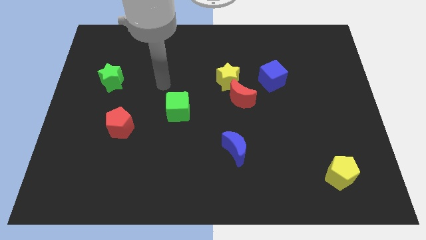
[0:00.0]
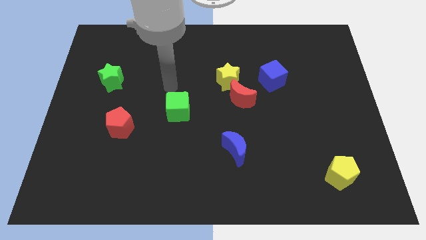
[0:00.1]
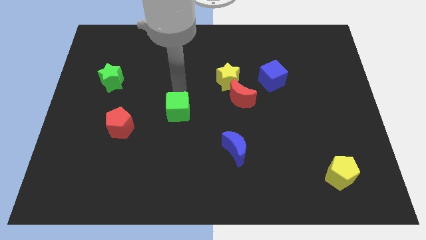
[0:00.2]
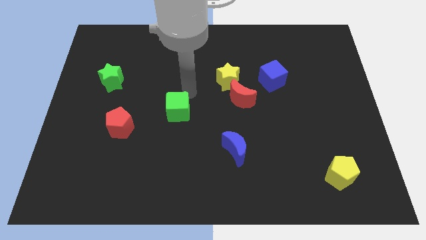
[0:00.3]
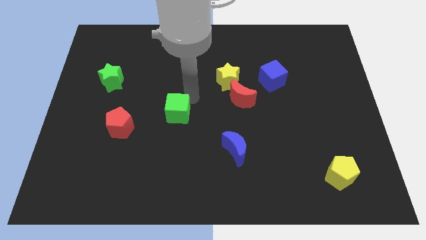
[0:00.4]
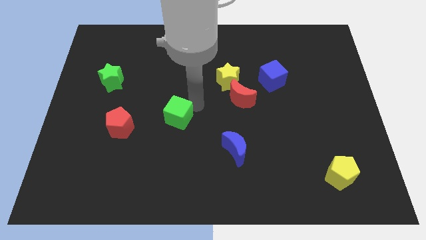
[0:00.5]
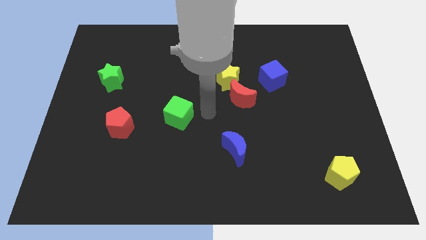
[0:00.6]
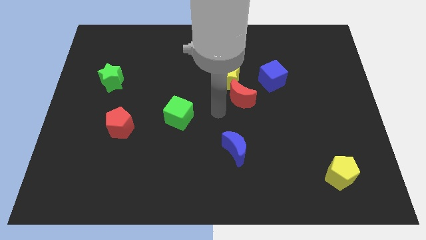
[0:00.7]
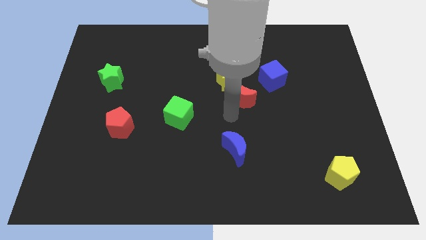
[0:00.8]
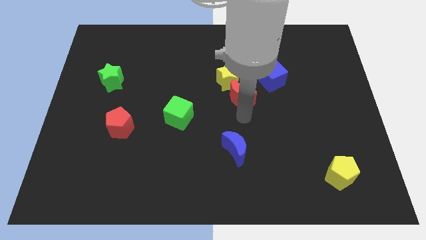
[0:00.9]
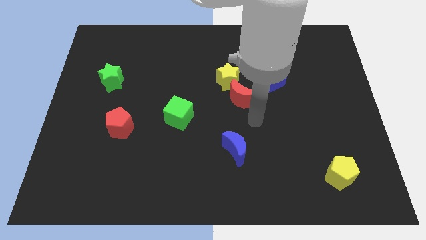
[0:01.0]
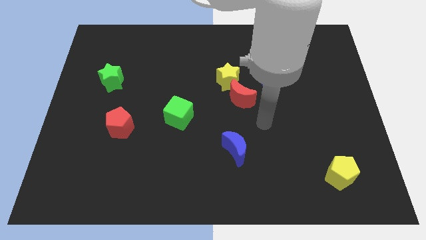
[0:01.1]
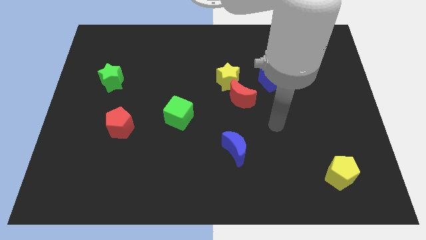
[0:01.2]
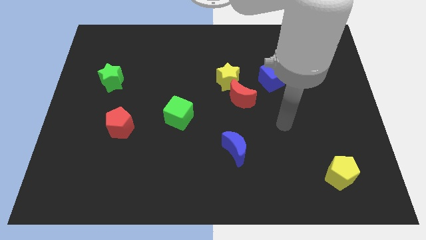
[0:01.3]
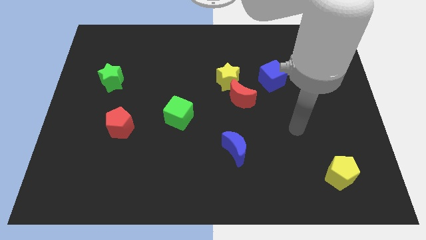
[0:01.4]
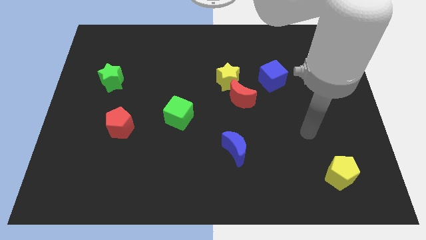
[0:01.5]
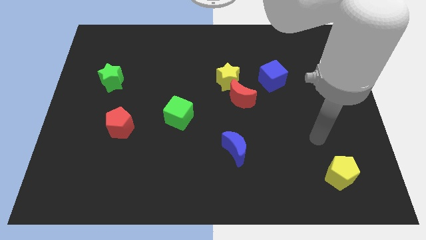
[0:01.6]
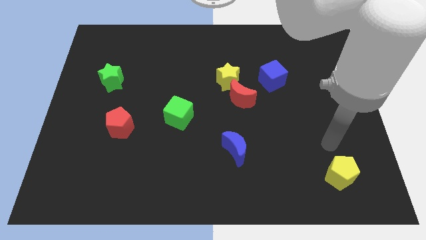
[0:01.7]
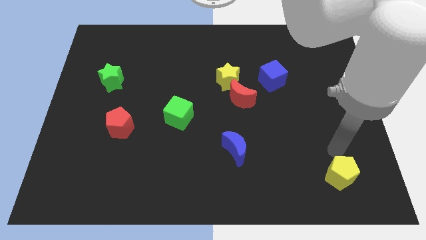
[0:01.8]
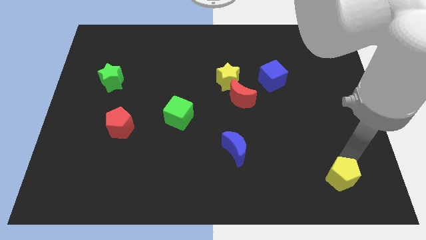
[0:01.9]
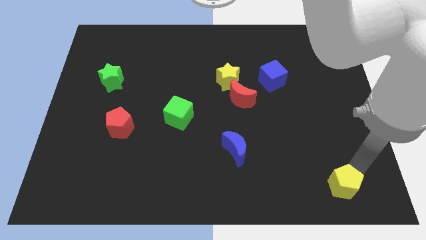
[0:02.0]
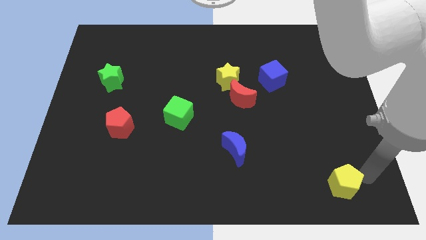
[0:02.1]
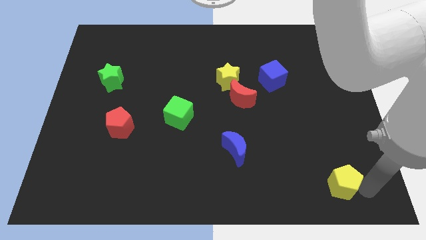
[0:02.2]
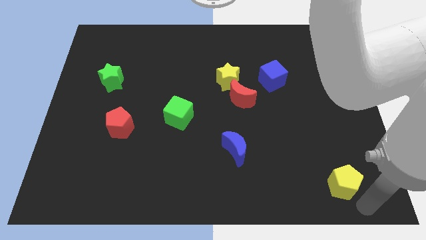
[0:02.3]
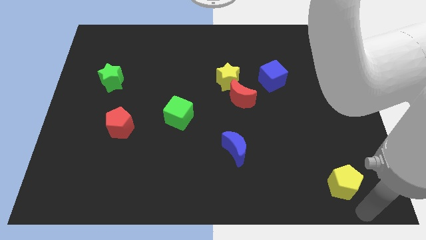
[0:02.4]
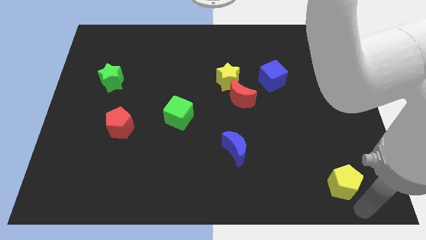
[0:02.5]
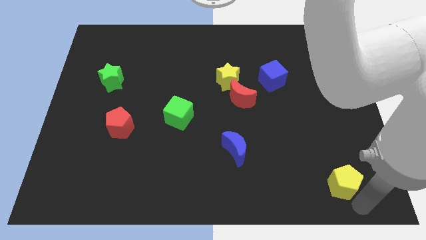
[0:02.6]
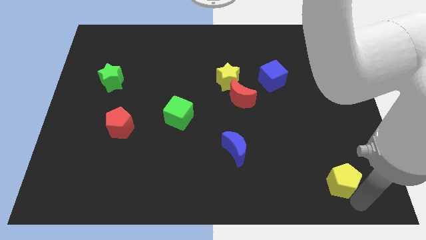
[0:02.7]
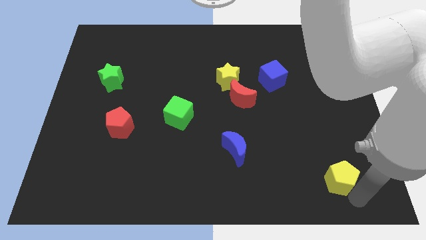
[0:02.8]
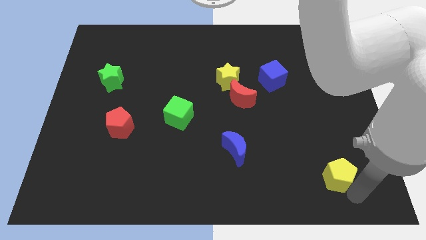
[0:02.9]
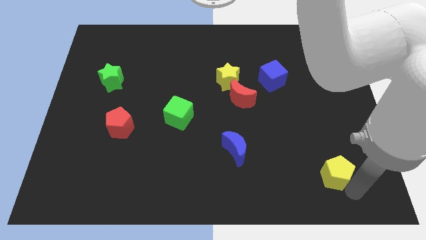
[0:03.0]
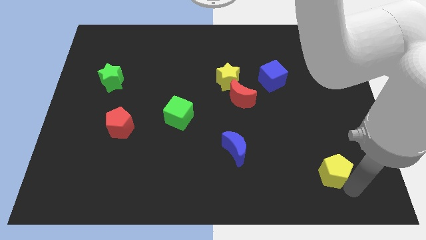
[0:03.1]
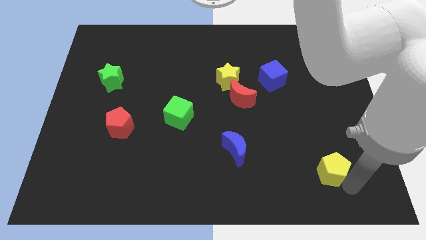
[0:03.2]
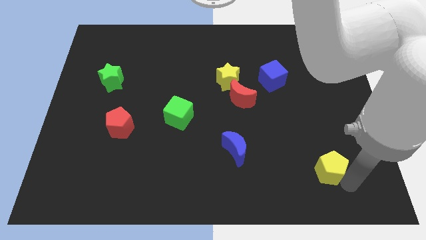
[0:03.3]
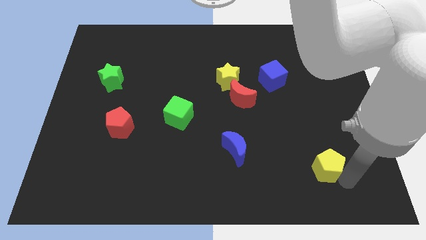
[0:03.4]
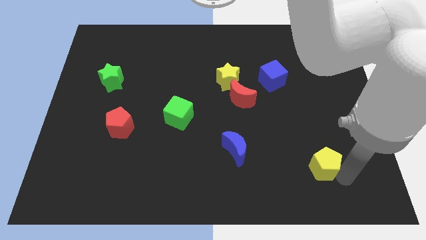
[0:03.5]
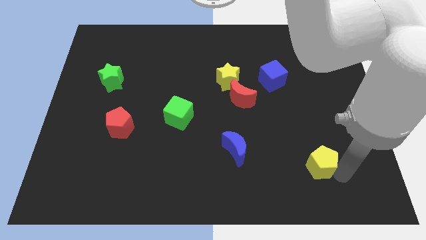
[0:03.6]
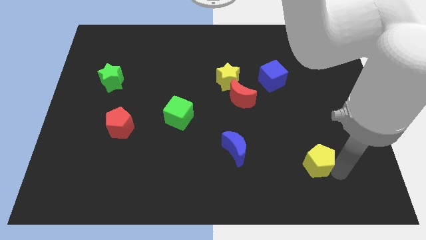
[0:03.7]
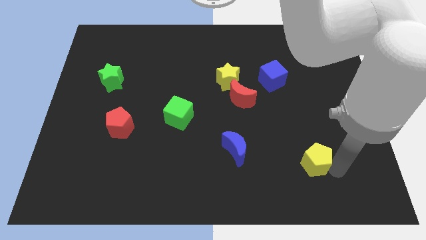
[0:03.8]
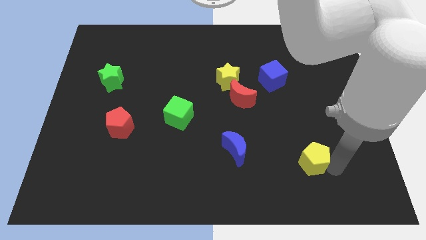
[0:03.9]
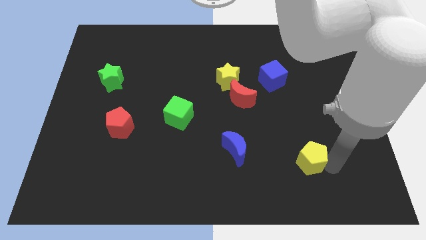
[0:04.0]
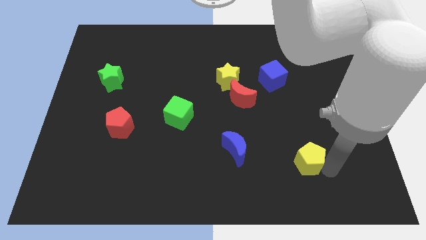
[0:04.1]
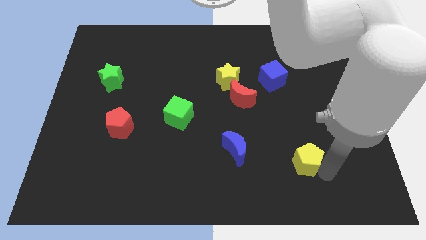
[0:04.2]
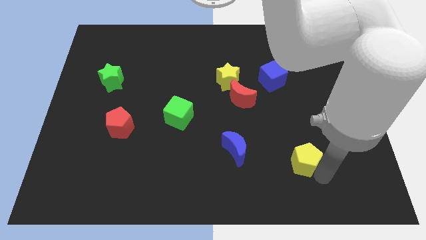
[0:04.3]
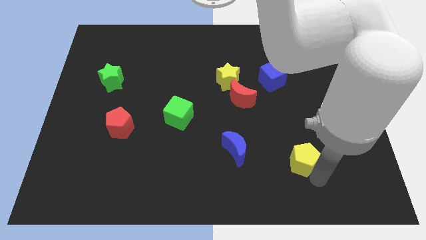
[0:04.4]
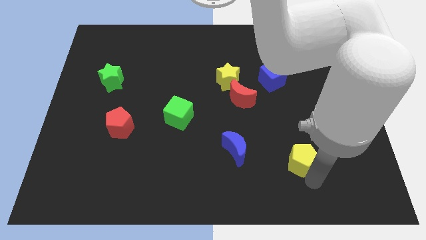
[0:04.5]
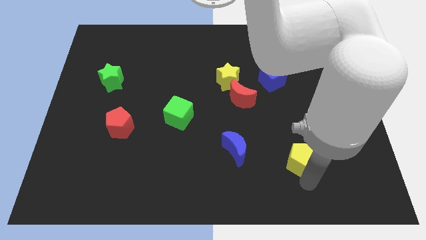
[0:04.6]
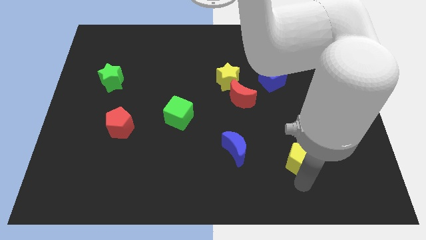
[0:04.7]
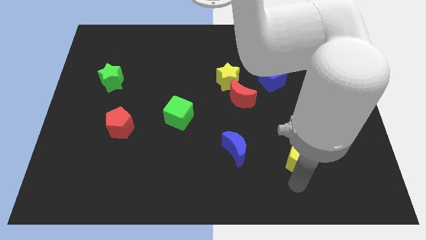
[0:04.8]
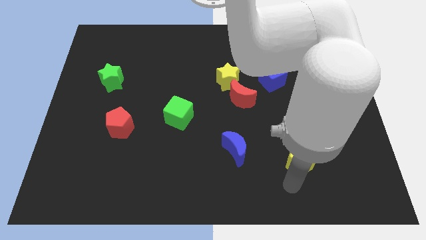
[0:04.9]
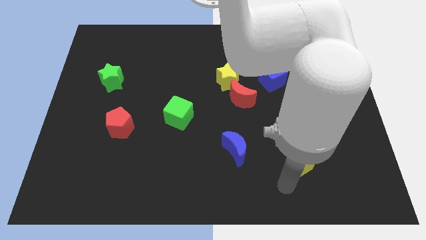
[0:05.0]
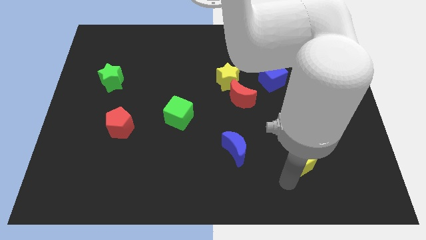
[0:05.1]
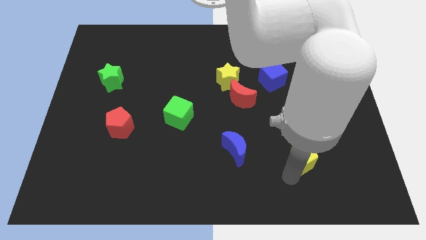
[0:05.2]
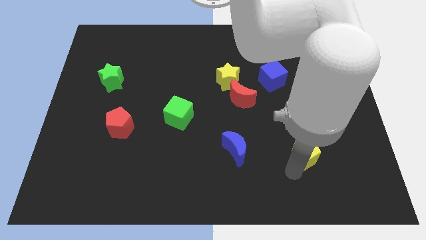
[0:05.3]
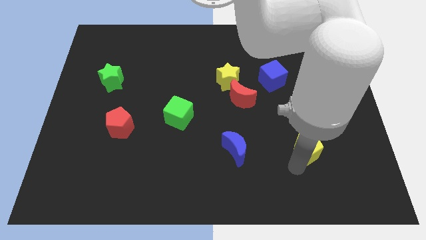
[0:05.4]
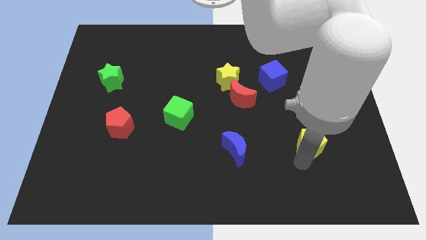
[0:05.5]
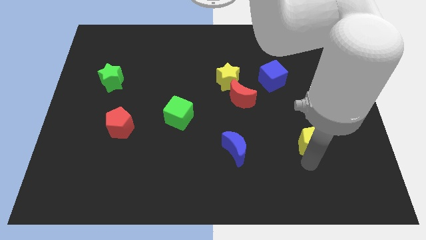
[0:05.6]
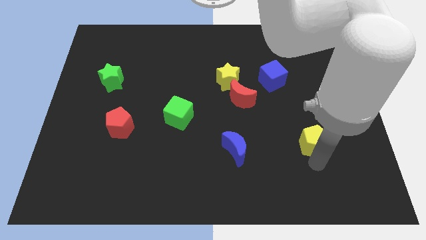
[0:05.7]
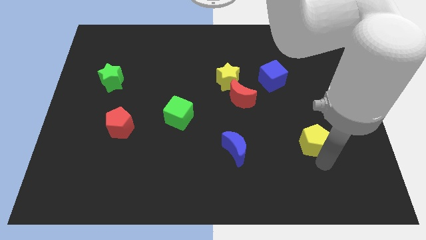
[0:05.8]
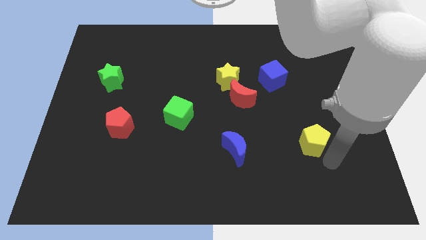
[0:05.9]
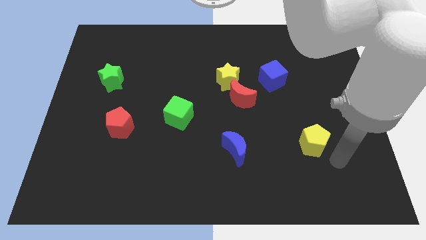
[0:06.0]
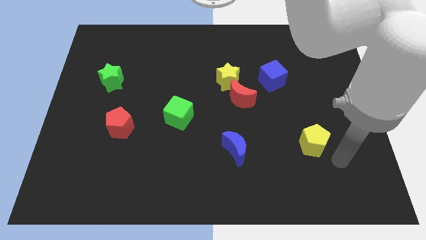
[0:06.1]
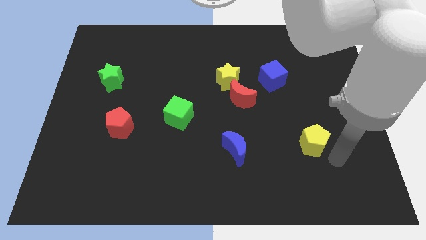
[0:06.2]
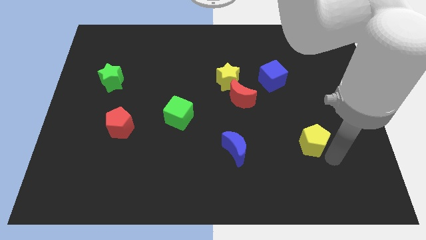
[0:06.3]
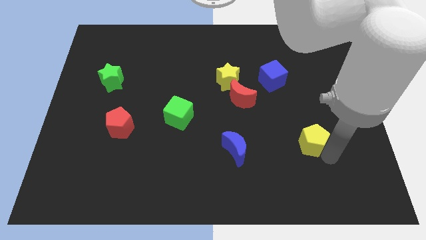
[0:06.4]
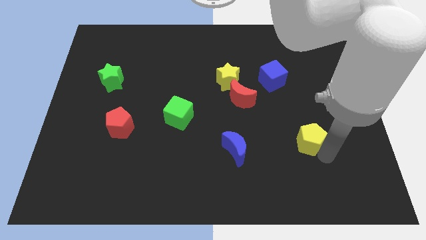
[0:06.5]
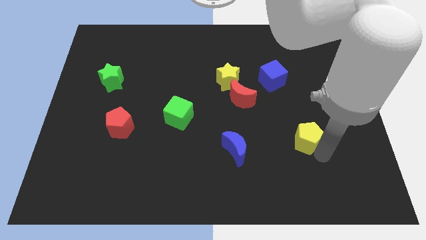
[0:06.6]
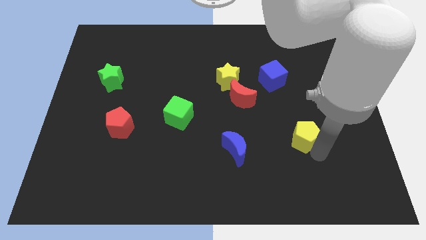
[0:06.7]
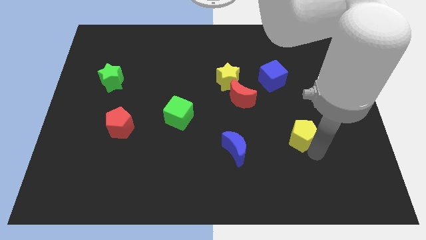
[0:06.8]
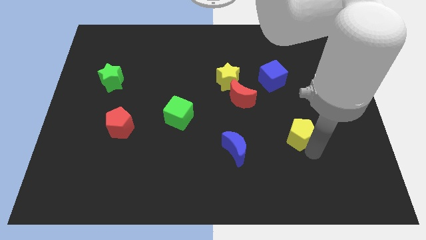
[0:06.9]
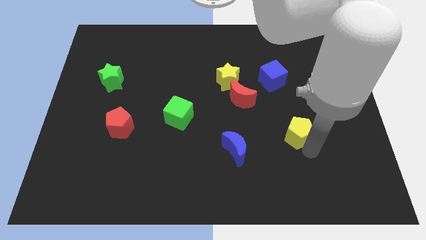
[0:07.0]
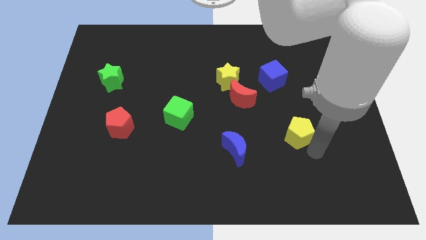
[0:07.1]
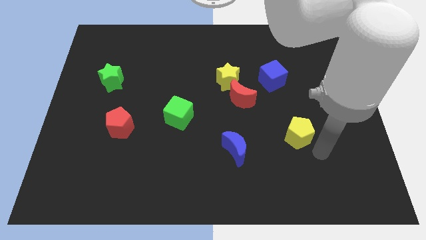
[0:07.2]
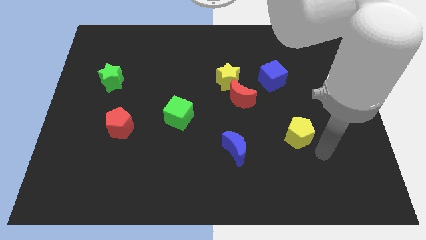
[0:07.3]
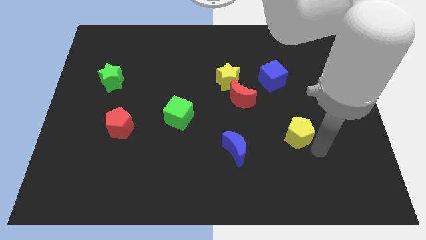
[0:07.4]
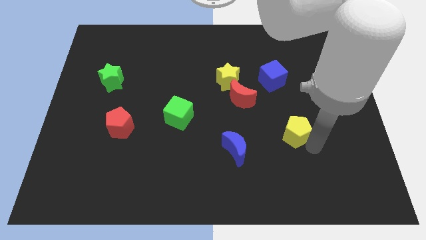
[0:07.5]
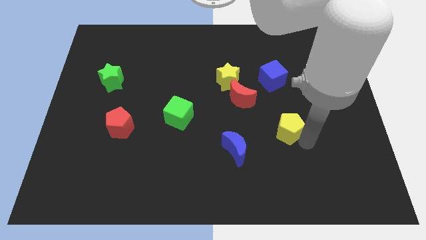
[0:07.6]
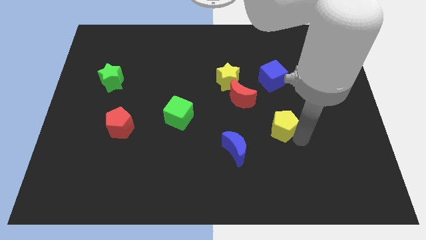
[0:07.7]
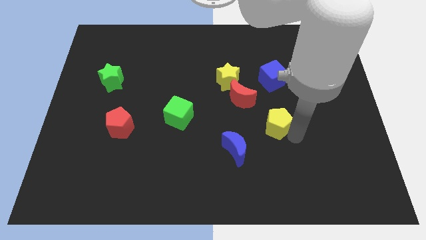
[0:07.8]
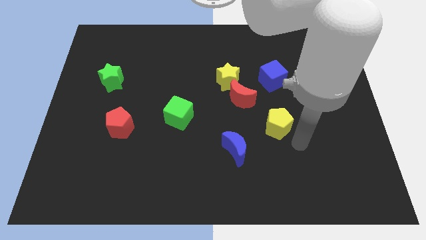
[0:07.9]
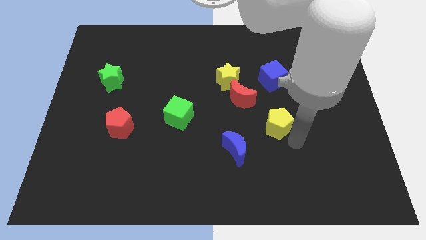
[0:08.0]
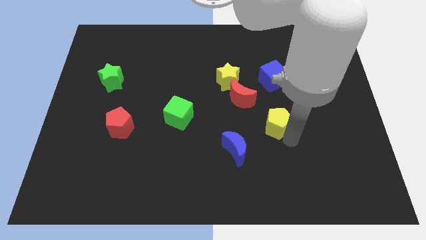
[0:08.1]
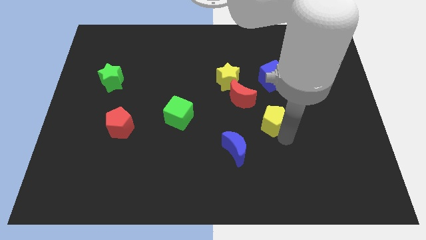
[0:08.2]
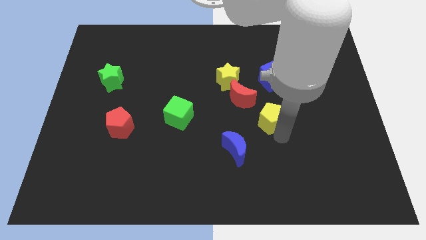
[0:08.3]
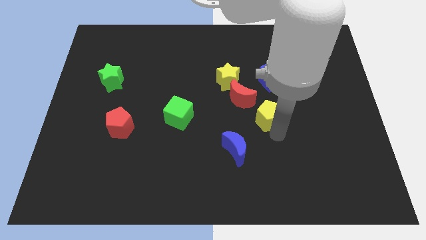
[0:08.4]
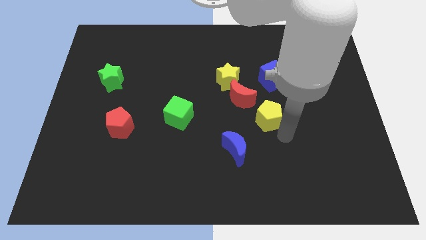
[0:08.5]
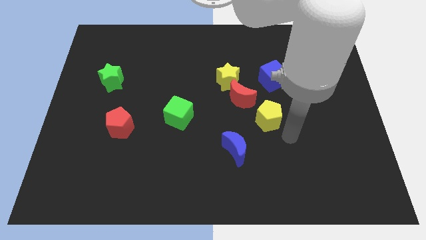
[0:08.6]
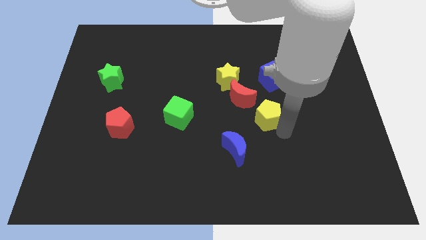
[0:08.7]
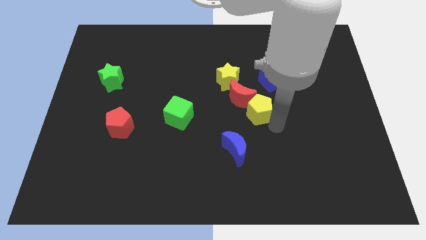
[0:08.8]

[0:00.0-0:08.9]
slide the yellow pentagon to the red moon
